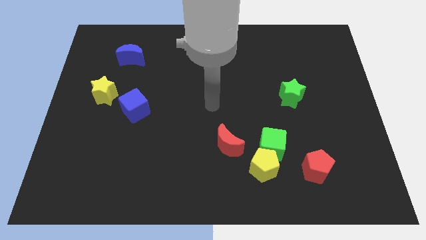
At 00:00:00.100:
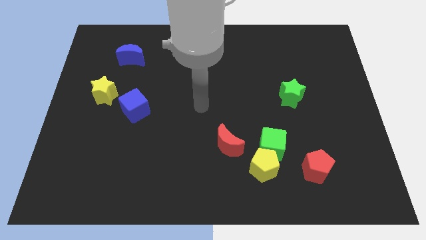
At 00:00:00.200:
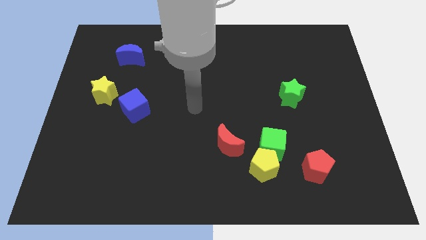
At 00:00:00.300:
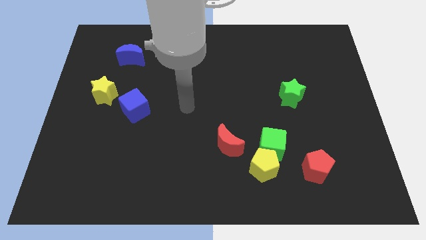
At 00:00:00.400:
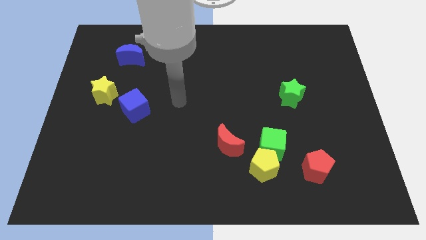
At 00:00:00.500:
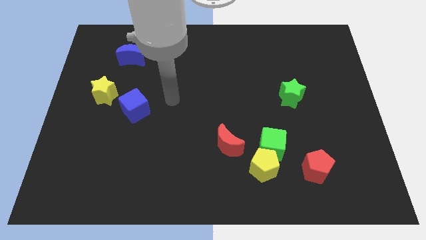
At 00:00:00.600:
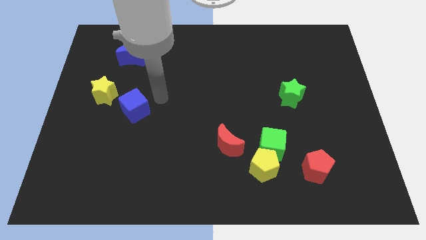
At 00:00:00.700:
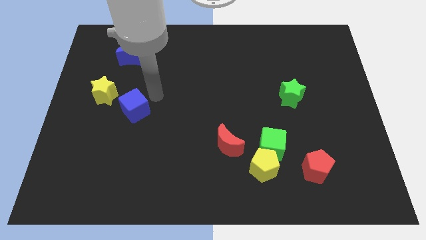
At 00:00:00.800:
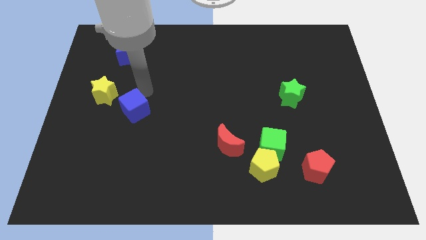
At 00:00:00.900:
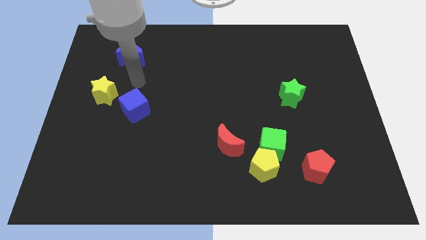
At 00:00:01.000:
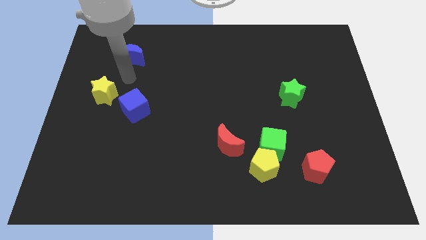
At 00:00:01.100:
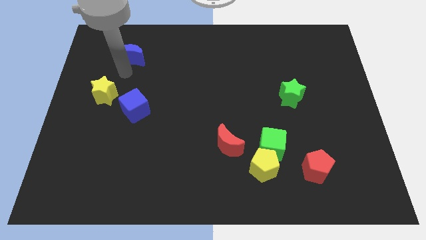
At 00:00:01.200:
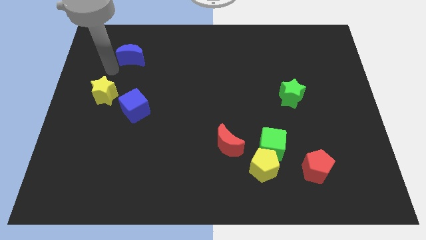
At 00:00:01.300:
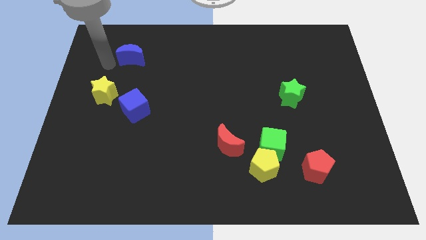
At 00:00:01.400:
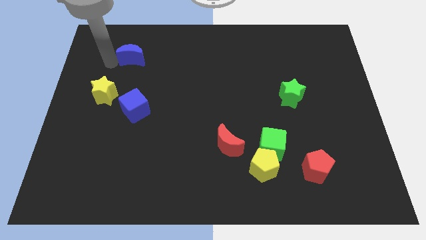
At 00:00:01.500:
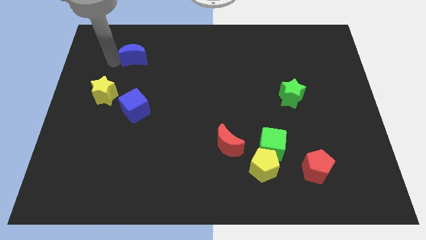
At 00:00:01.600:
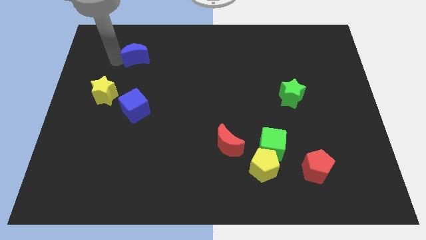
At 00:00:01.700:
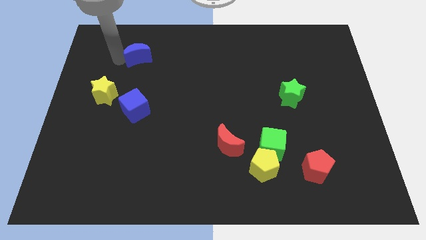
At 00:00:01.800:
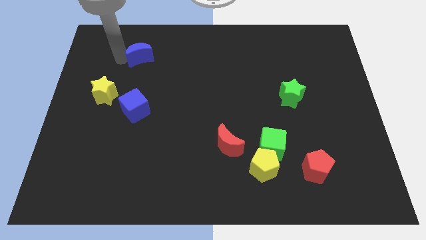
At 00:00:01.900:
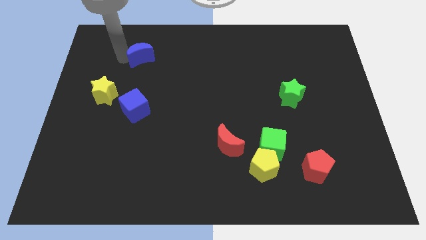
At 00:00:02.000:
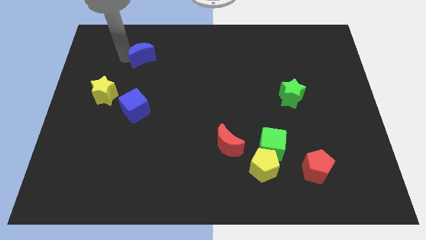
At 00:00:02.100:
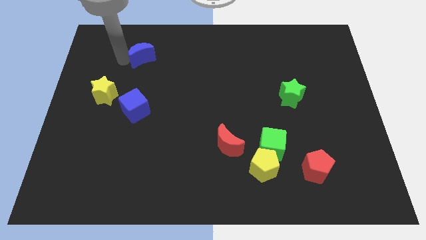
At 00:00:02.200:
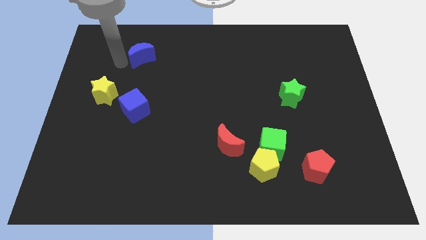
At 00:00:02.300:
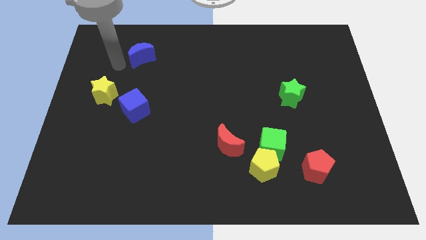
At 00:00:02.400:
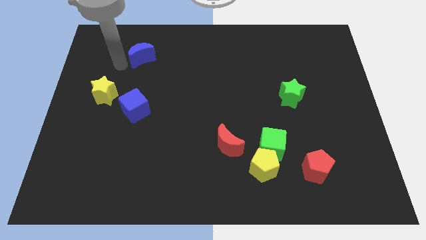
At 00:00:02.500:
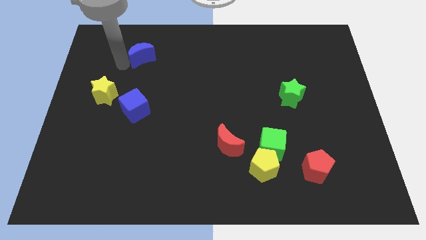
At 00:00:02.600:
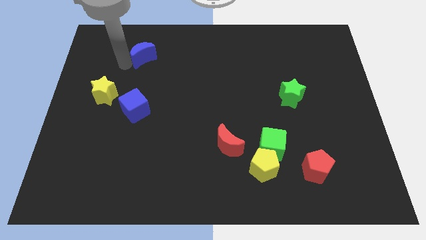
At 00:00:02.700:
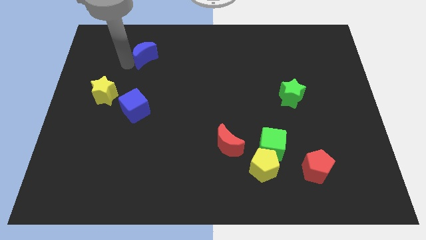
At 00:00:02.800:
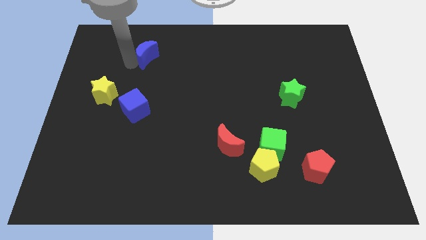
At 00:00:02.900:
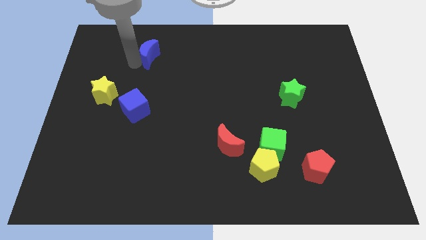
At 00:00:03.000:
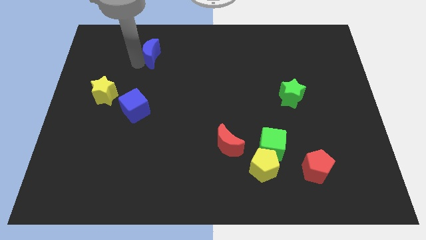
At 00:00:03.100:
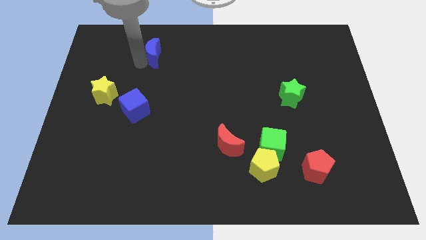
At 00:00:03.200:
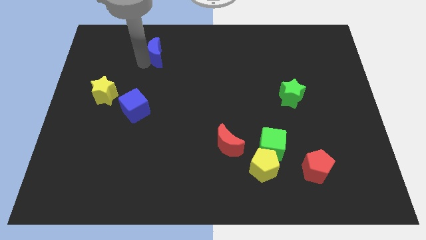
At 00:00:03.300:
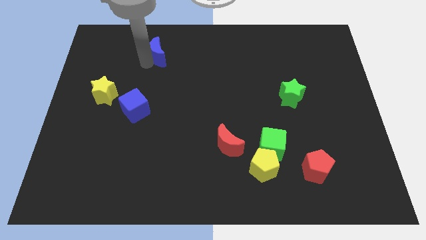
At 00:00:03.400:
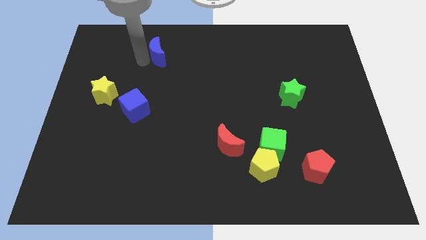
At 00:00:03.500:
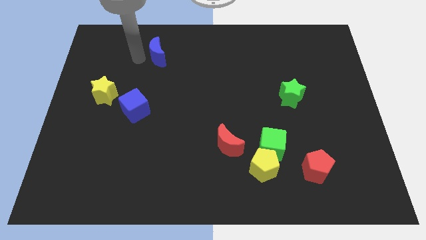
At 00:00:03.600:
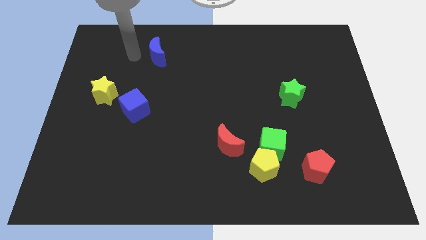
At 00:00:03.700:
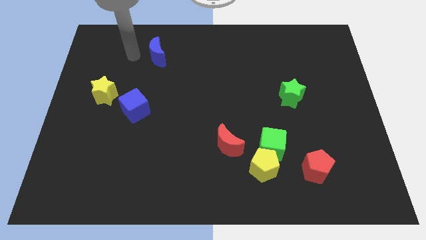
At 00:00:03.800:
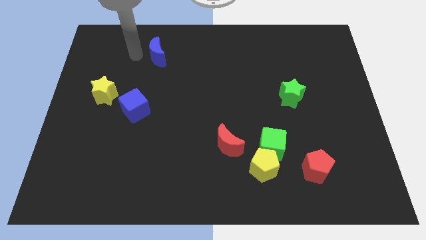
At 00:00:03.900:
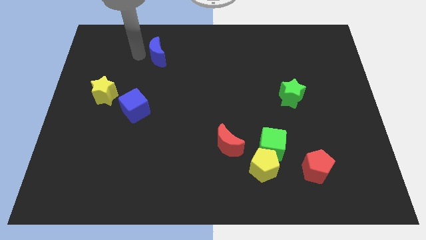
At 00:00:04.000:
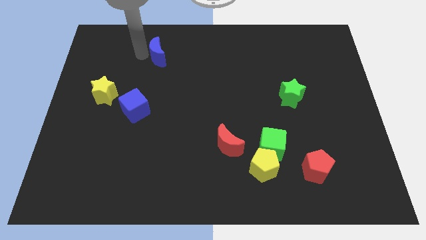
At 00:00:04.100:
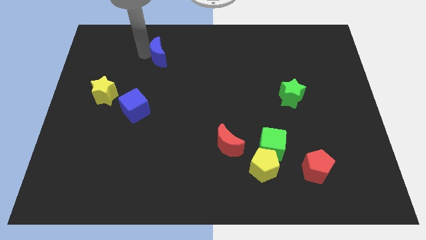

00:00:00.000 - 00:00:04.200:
slightly slide the blue moon right

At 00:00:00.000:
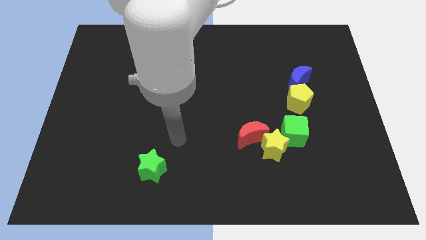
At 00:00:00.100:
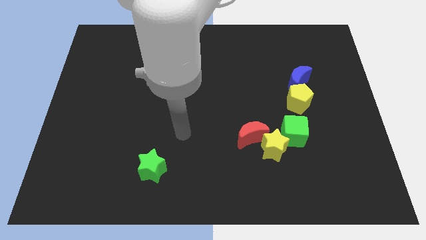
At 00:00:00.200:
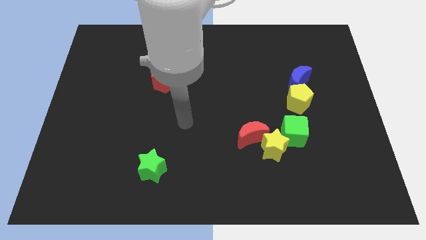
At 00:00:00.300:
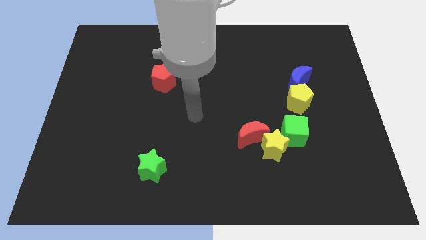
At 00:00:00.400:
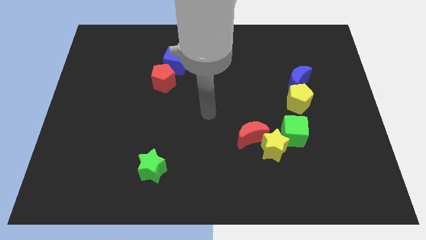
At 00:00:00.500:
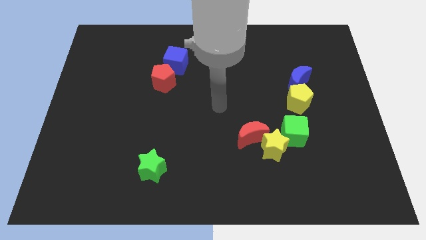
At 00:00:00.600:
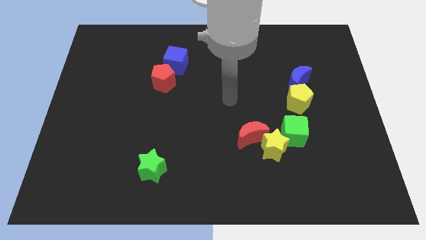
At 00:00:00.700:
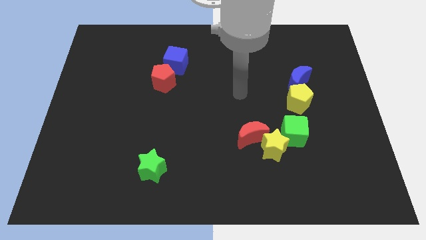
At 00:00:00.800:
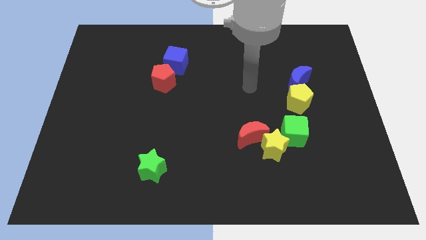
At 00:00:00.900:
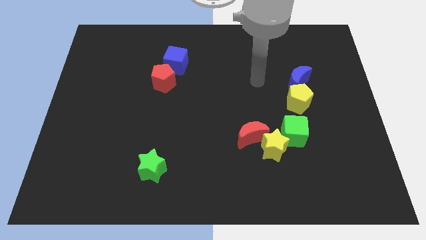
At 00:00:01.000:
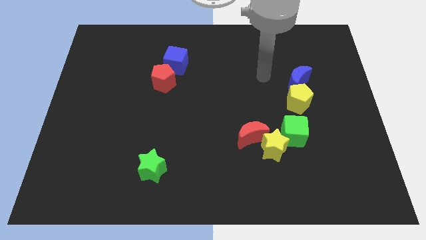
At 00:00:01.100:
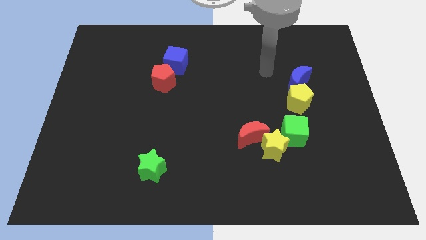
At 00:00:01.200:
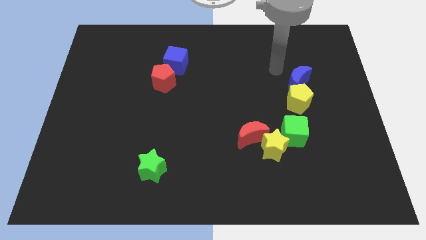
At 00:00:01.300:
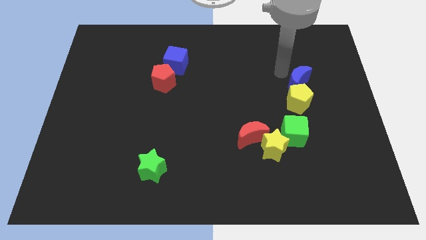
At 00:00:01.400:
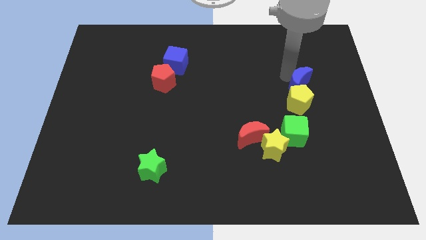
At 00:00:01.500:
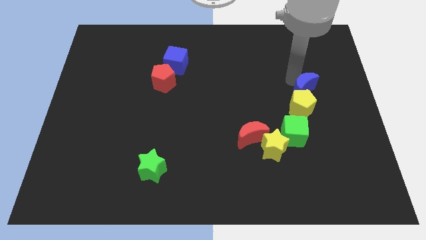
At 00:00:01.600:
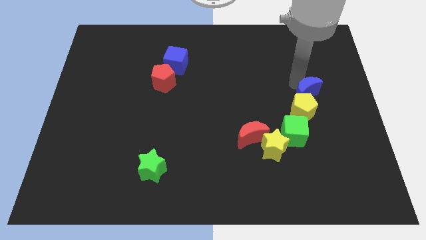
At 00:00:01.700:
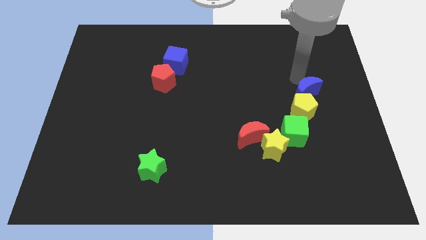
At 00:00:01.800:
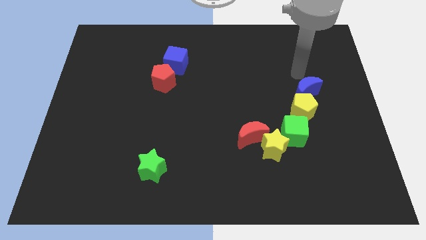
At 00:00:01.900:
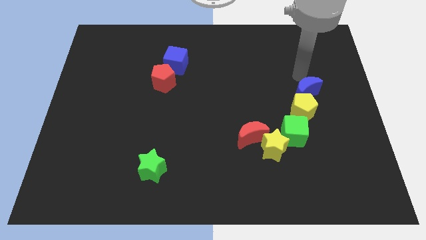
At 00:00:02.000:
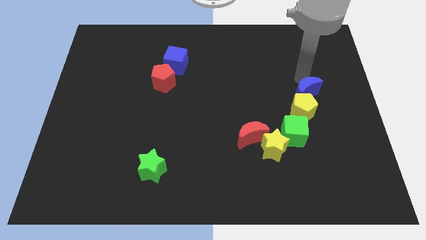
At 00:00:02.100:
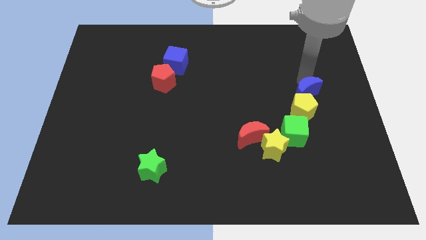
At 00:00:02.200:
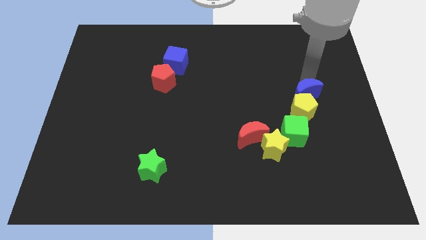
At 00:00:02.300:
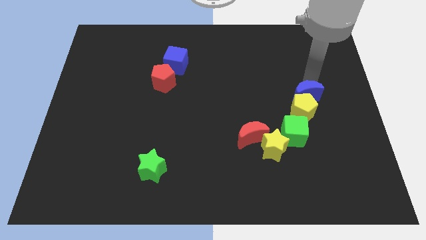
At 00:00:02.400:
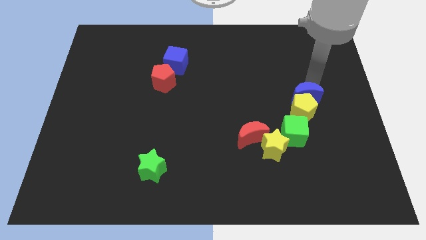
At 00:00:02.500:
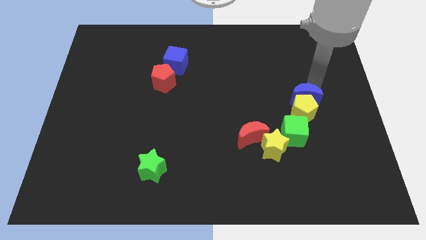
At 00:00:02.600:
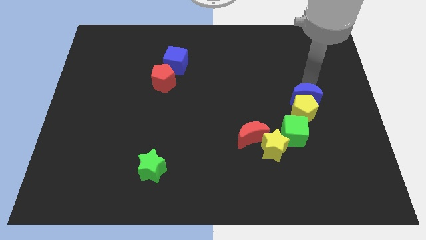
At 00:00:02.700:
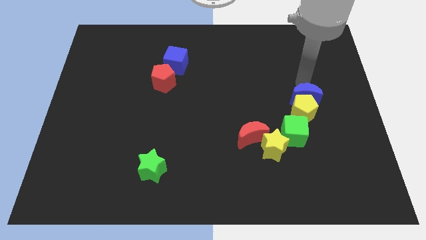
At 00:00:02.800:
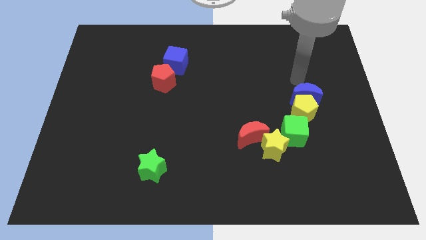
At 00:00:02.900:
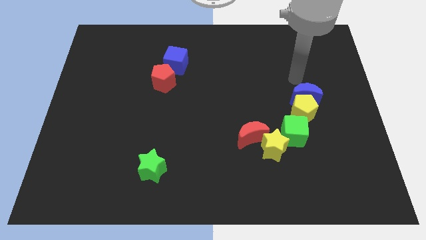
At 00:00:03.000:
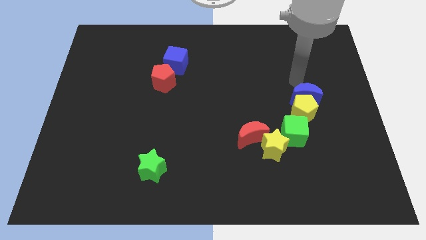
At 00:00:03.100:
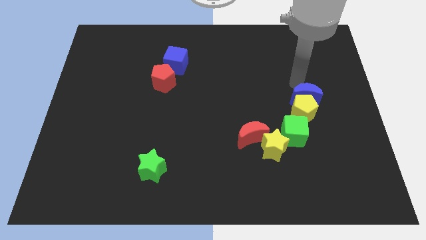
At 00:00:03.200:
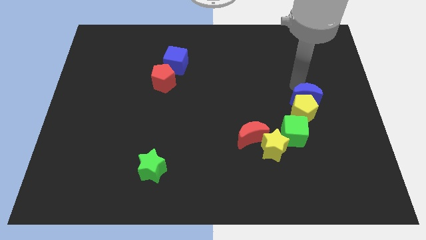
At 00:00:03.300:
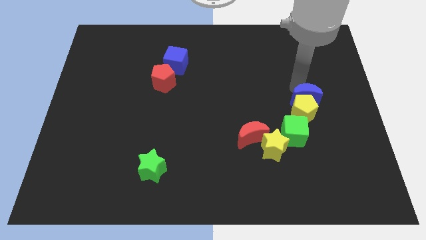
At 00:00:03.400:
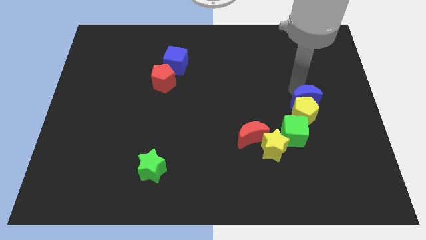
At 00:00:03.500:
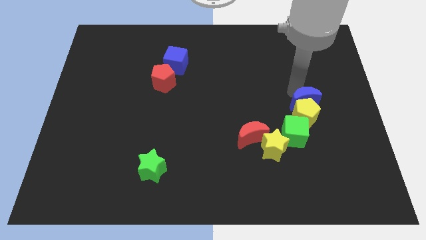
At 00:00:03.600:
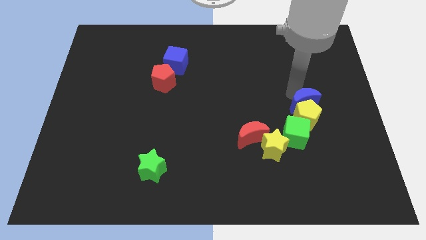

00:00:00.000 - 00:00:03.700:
slide the blue moon down a little
